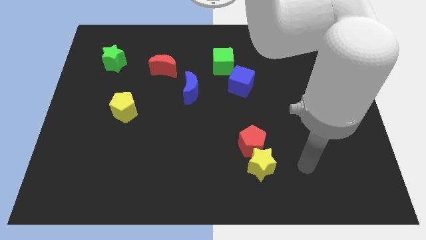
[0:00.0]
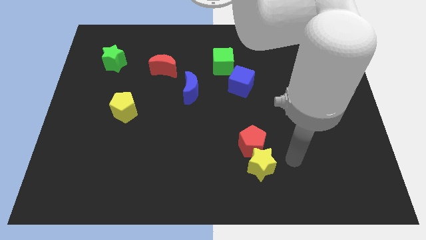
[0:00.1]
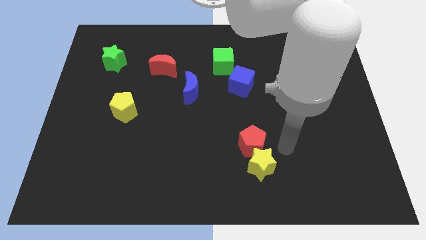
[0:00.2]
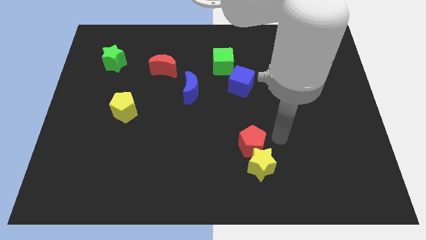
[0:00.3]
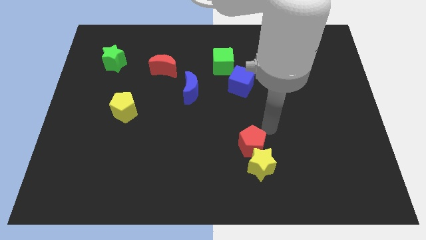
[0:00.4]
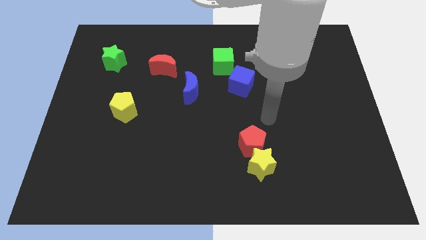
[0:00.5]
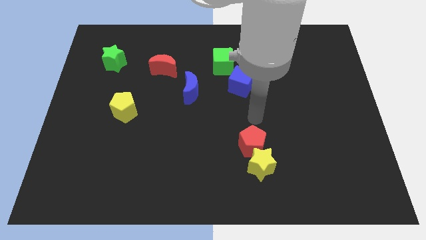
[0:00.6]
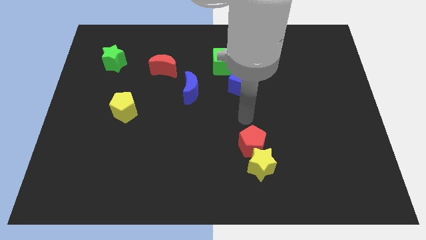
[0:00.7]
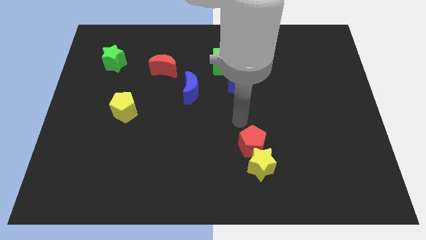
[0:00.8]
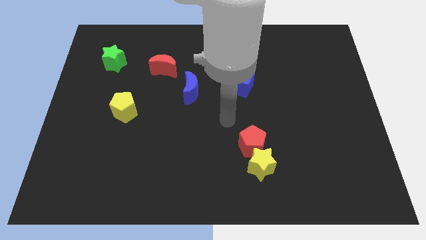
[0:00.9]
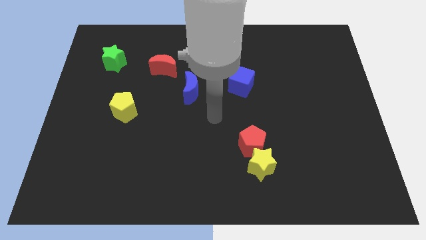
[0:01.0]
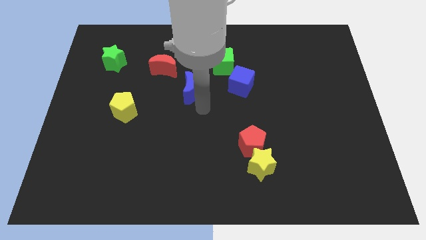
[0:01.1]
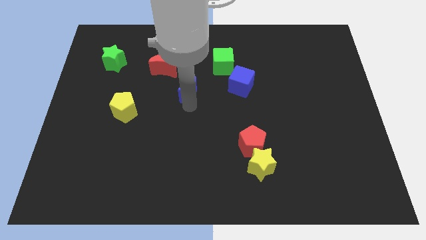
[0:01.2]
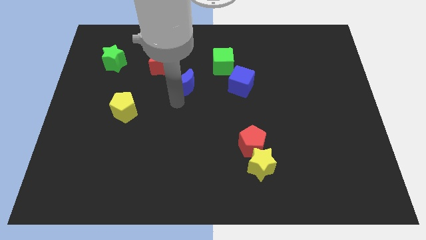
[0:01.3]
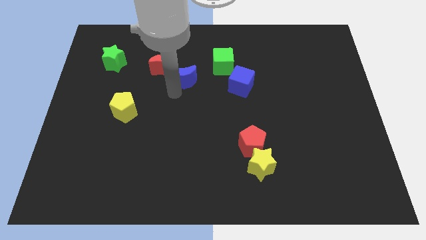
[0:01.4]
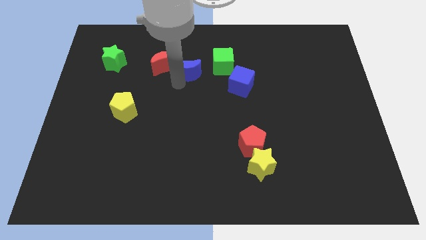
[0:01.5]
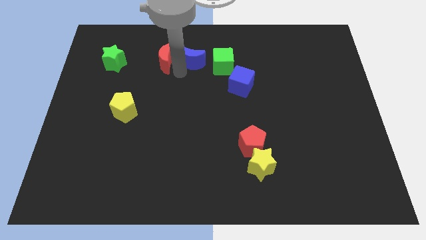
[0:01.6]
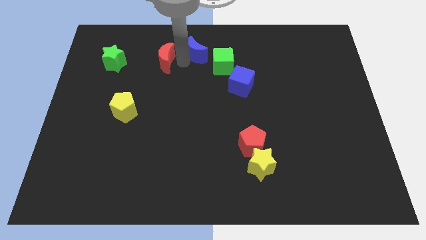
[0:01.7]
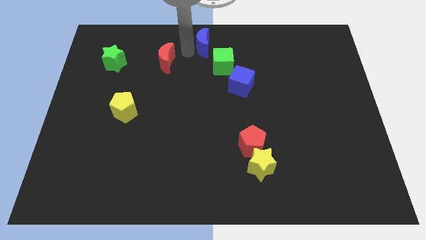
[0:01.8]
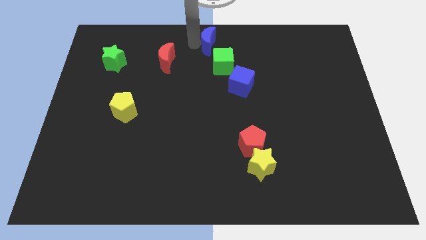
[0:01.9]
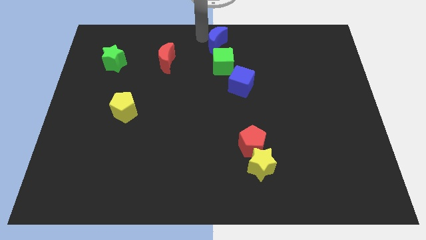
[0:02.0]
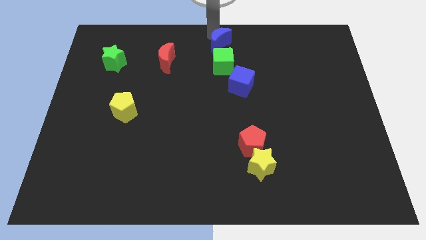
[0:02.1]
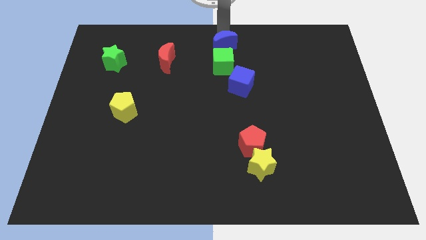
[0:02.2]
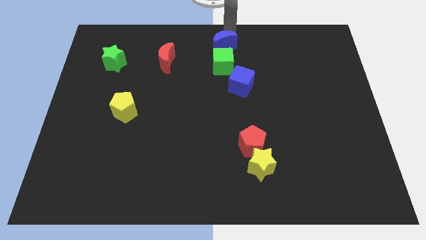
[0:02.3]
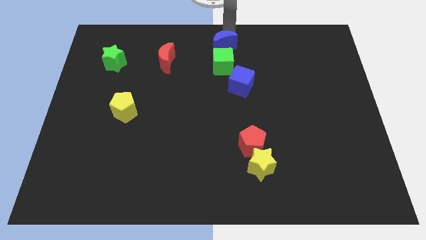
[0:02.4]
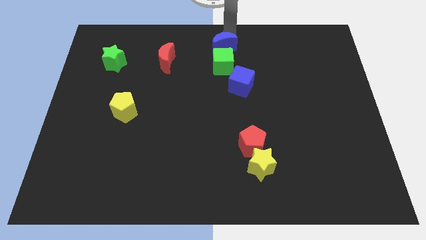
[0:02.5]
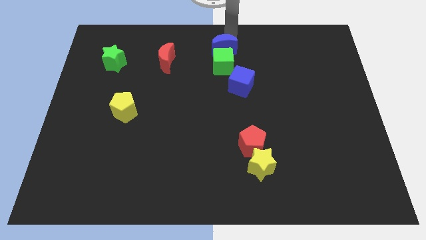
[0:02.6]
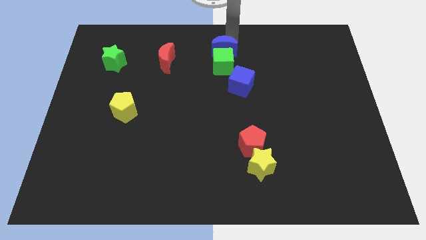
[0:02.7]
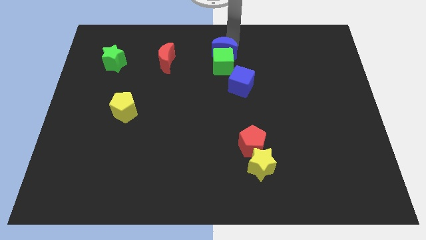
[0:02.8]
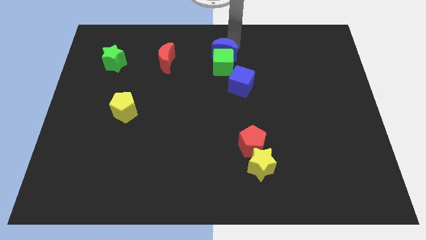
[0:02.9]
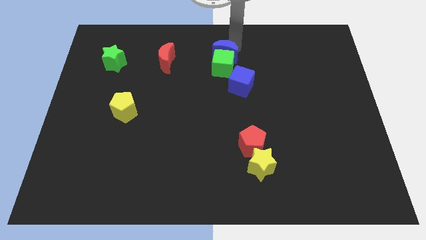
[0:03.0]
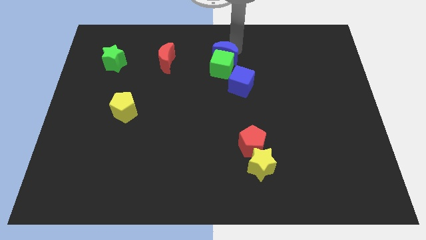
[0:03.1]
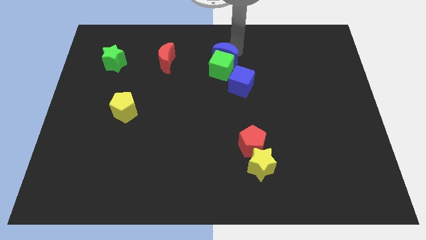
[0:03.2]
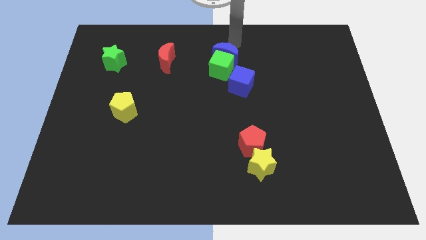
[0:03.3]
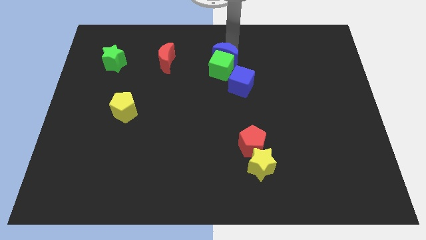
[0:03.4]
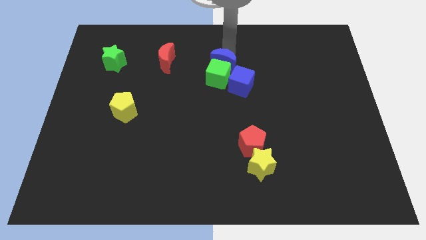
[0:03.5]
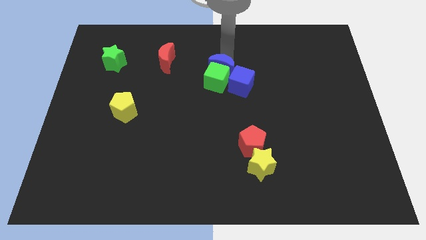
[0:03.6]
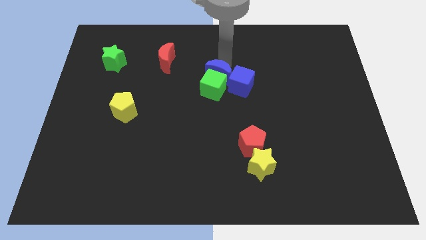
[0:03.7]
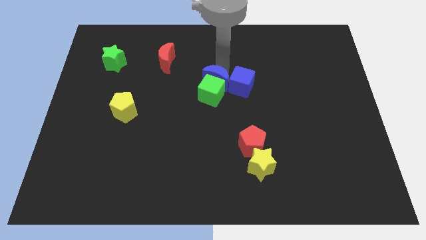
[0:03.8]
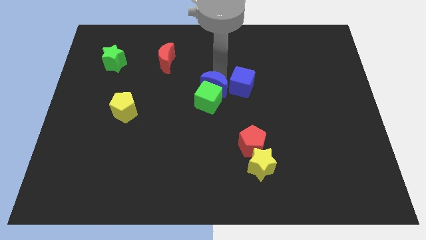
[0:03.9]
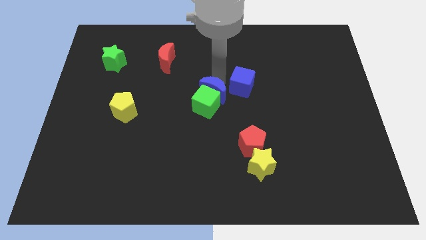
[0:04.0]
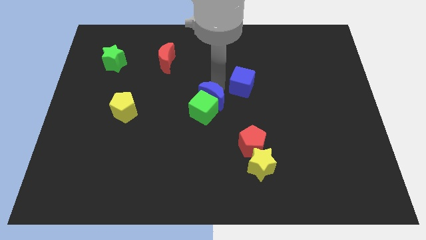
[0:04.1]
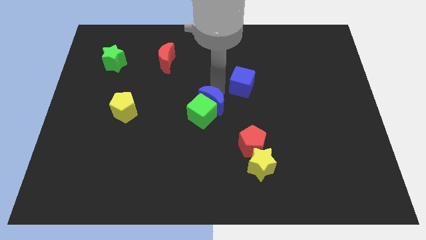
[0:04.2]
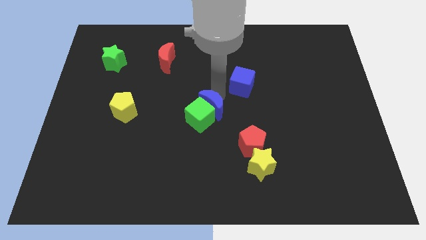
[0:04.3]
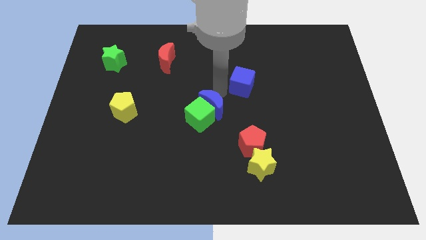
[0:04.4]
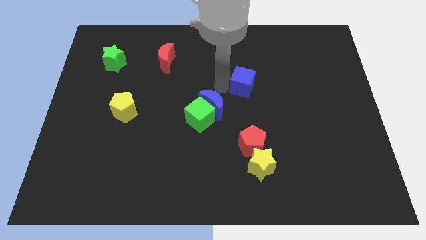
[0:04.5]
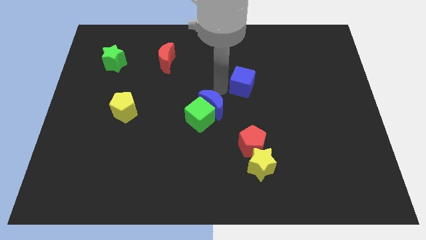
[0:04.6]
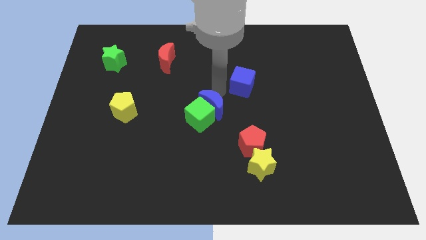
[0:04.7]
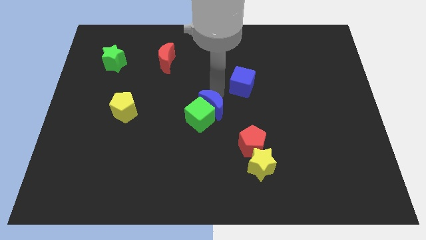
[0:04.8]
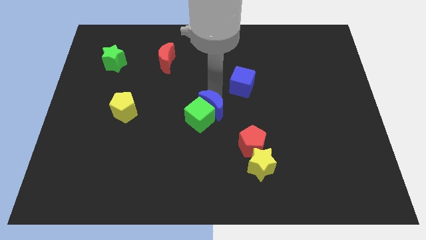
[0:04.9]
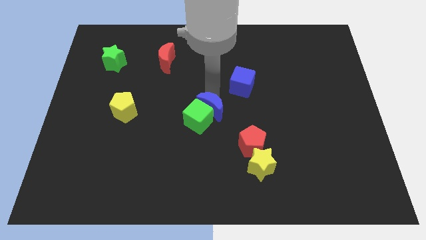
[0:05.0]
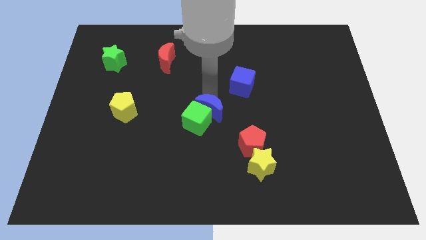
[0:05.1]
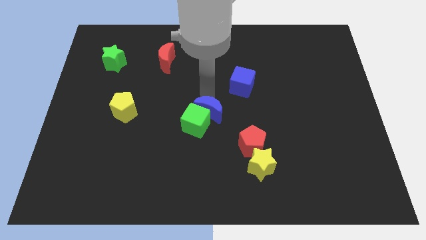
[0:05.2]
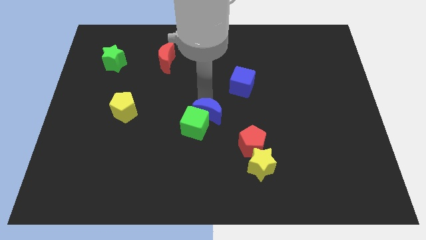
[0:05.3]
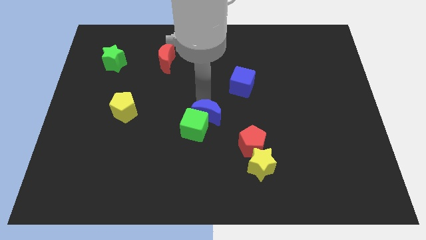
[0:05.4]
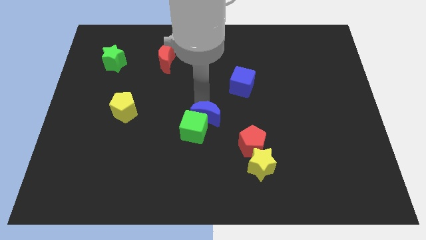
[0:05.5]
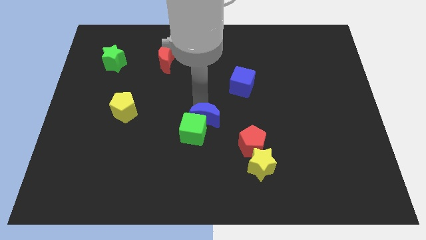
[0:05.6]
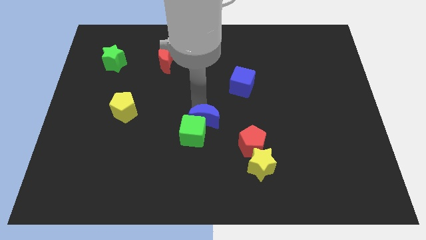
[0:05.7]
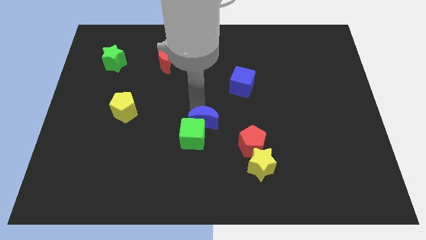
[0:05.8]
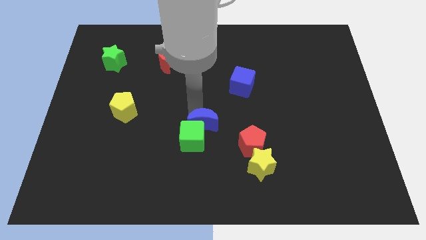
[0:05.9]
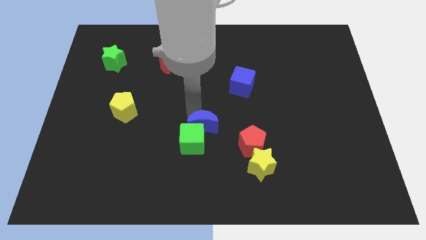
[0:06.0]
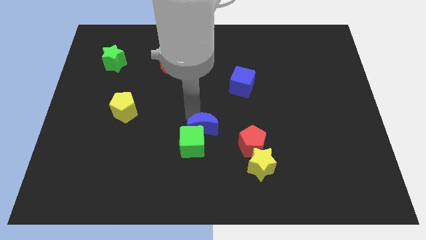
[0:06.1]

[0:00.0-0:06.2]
put the blue moon to the left of the red pentagon

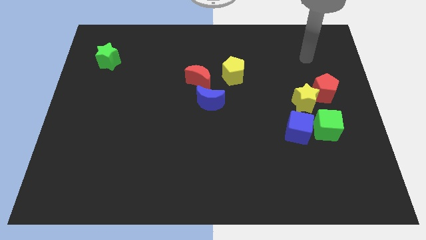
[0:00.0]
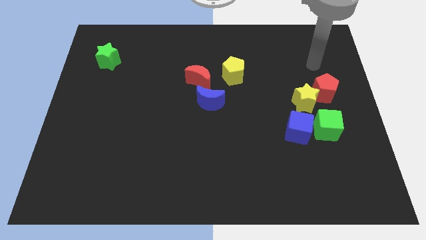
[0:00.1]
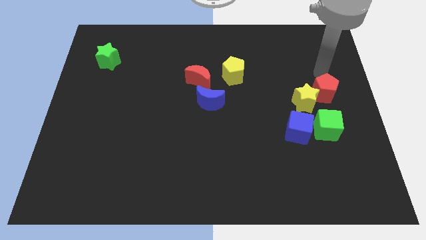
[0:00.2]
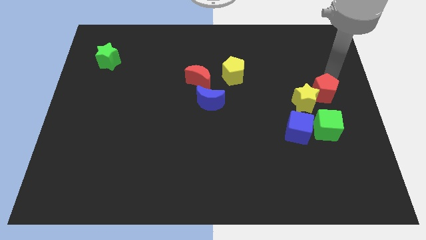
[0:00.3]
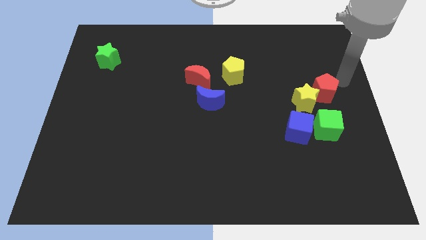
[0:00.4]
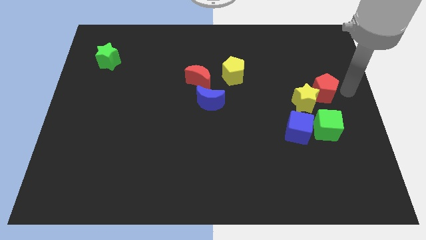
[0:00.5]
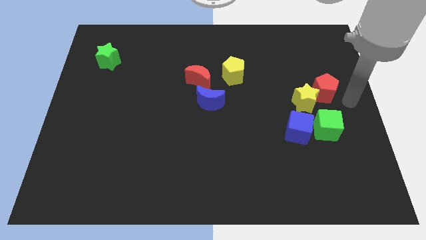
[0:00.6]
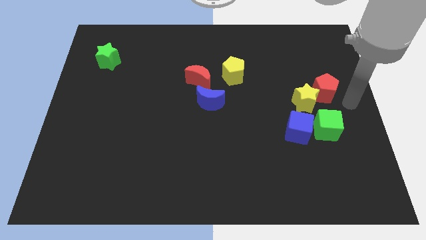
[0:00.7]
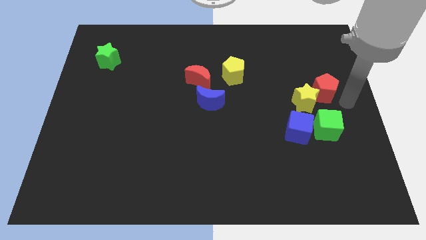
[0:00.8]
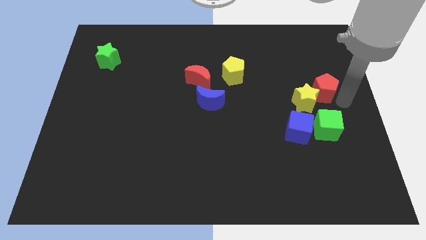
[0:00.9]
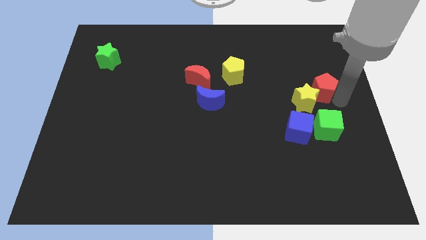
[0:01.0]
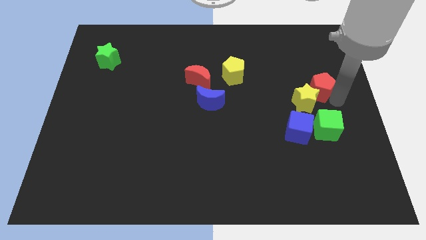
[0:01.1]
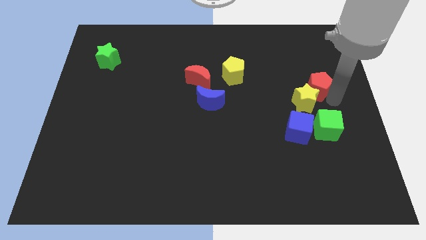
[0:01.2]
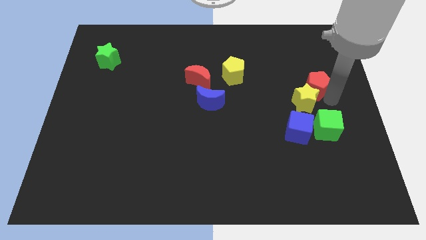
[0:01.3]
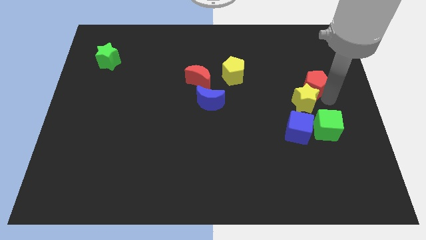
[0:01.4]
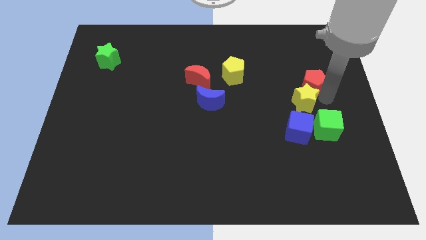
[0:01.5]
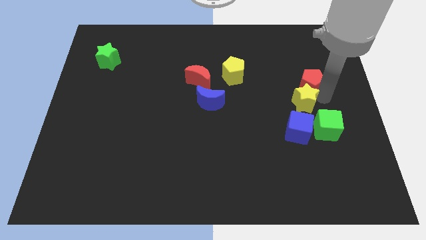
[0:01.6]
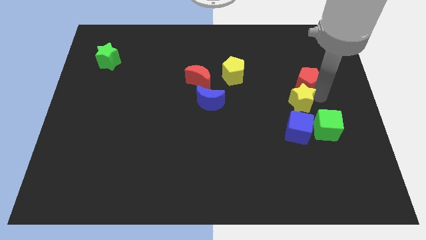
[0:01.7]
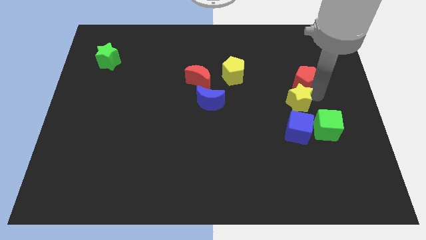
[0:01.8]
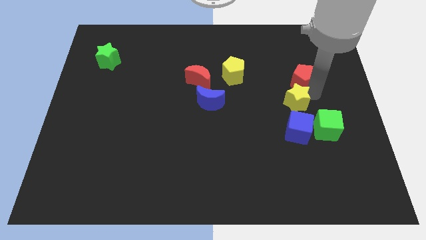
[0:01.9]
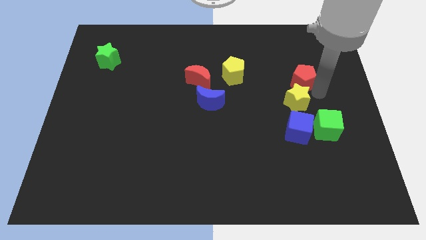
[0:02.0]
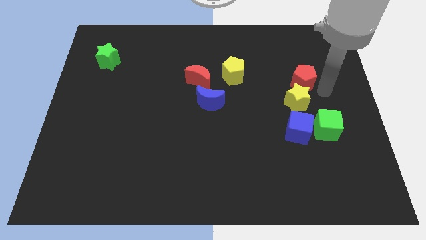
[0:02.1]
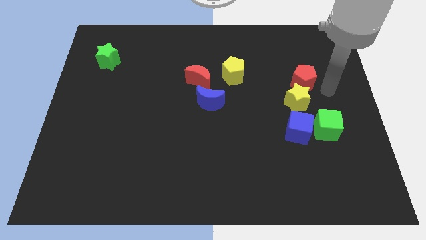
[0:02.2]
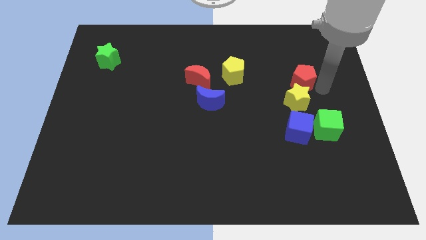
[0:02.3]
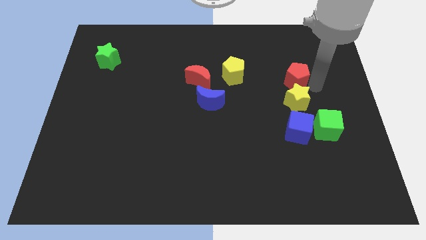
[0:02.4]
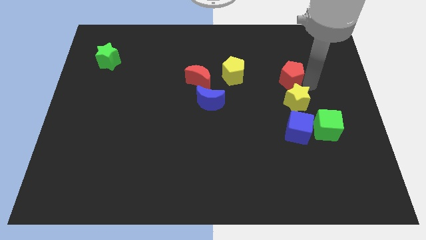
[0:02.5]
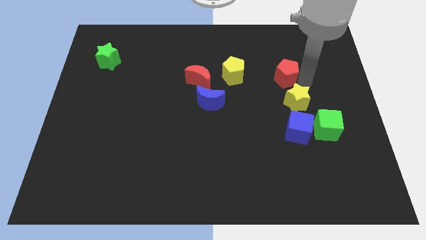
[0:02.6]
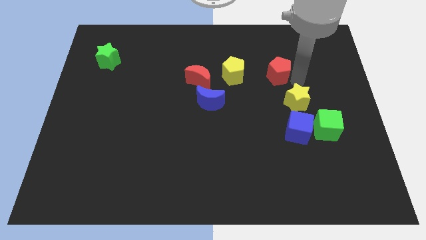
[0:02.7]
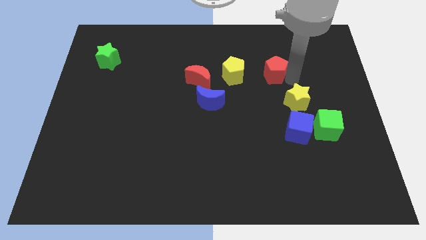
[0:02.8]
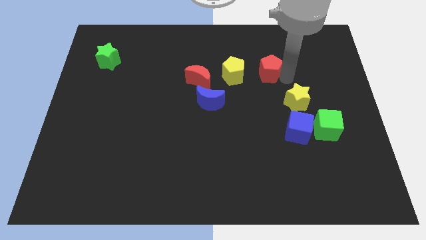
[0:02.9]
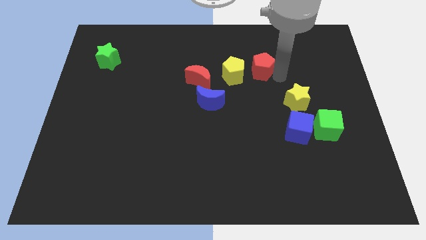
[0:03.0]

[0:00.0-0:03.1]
put the red pentagon to the top right of the yellow pentagon
